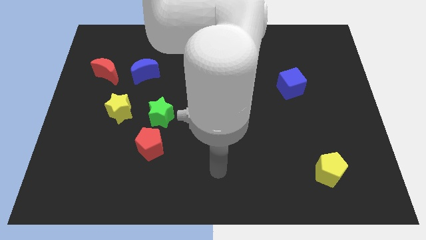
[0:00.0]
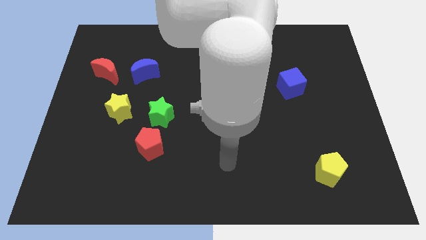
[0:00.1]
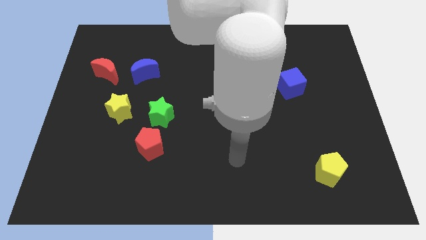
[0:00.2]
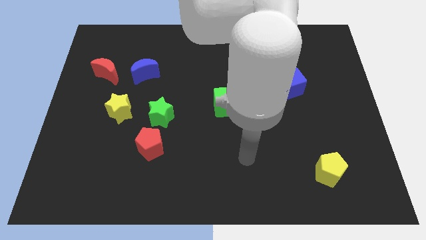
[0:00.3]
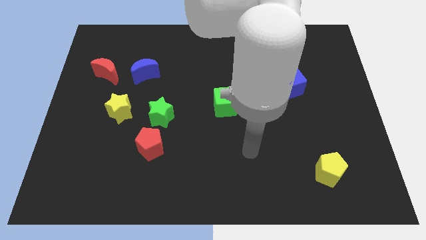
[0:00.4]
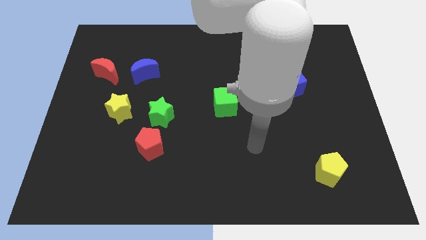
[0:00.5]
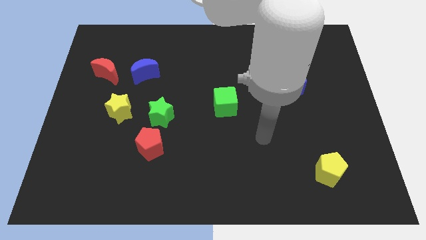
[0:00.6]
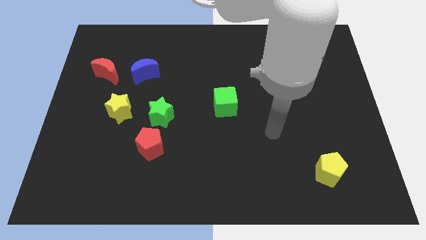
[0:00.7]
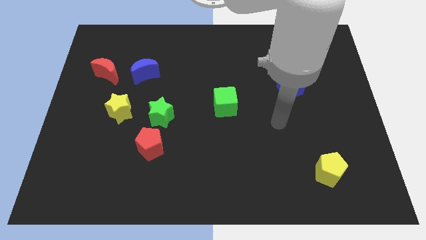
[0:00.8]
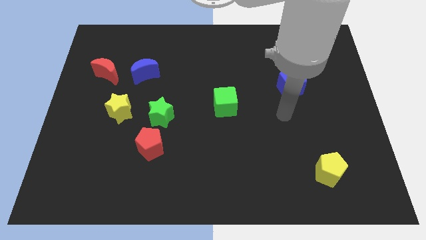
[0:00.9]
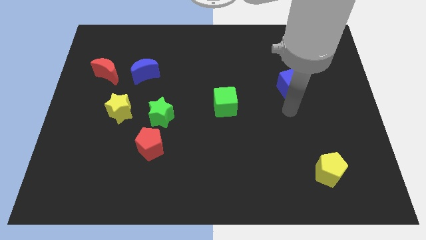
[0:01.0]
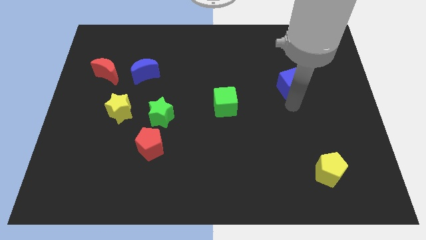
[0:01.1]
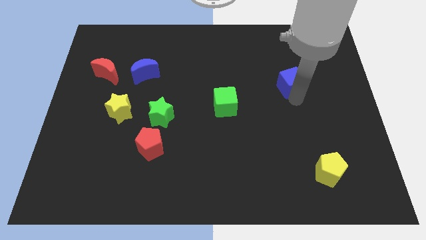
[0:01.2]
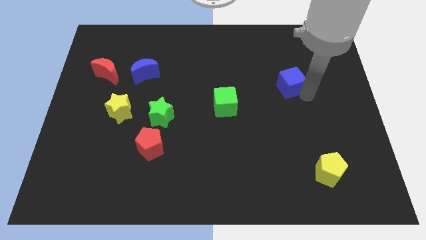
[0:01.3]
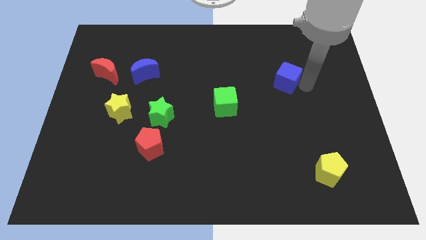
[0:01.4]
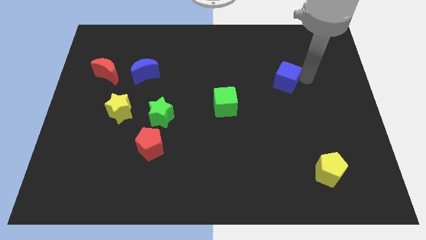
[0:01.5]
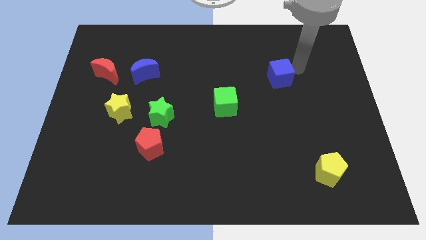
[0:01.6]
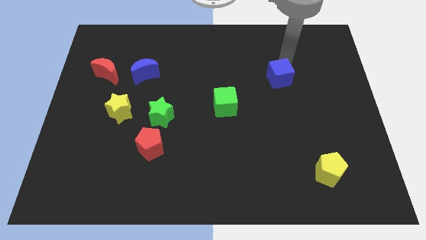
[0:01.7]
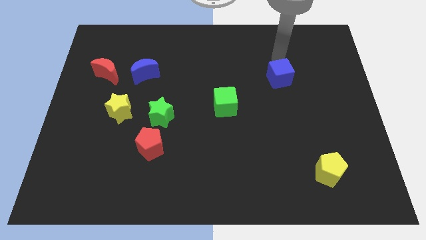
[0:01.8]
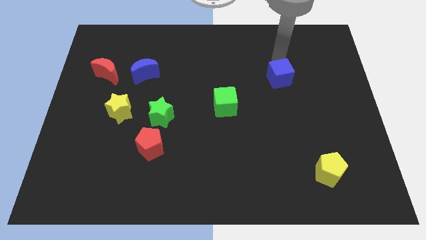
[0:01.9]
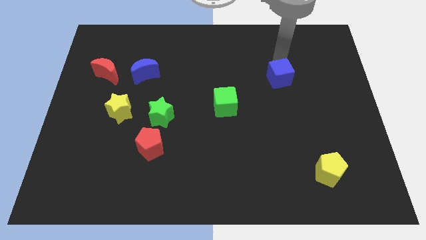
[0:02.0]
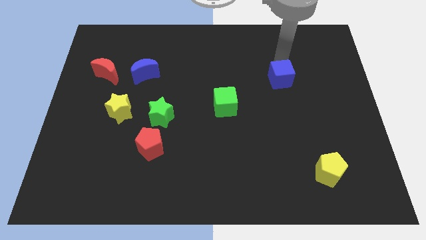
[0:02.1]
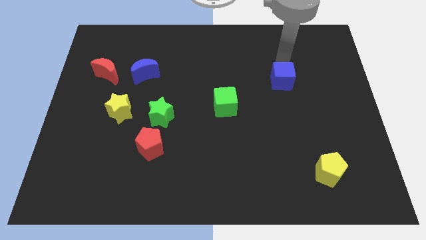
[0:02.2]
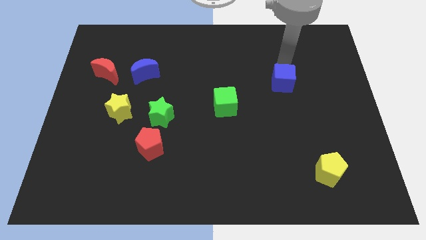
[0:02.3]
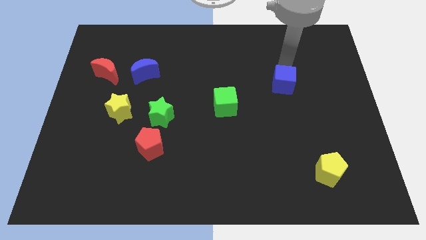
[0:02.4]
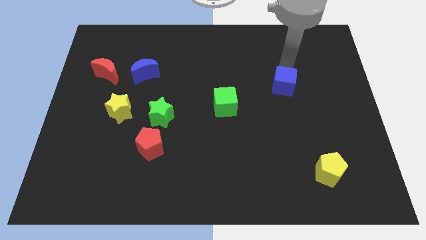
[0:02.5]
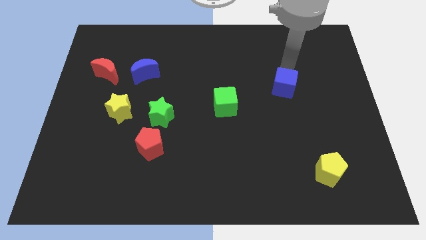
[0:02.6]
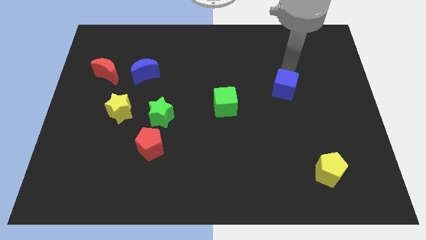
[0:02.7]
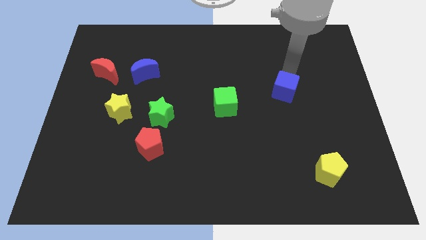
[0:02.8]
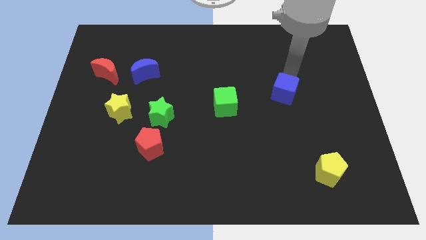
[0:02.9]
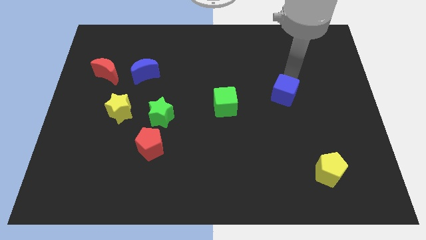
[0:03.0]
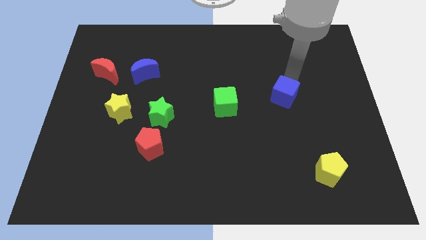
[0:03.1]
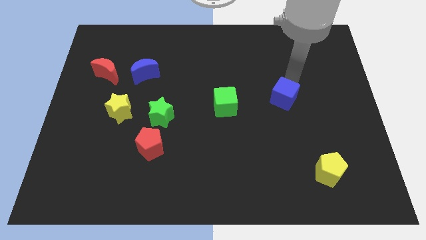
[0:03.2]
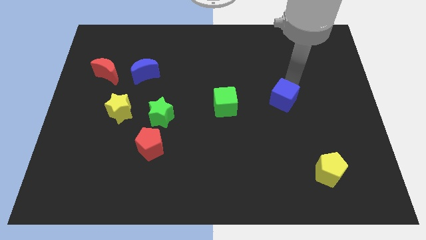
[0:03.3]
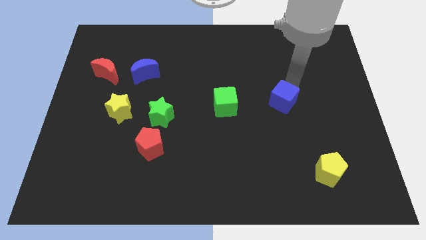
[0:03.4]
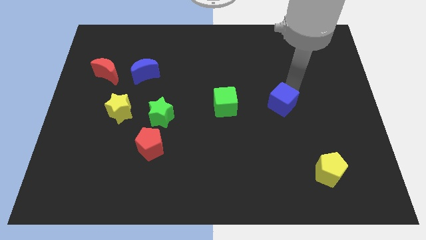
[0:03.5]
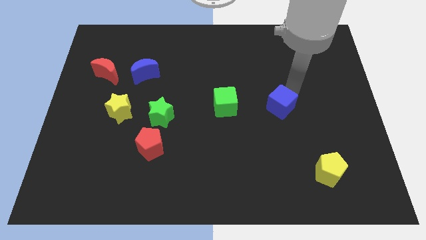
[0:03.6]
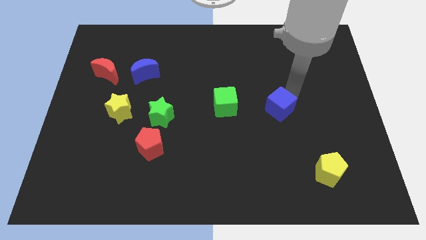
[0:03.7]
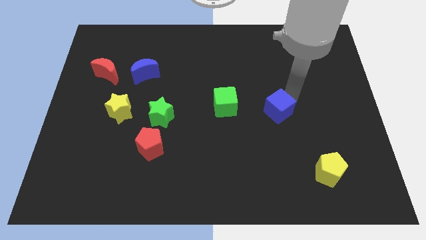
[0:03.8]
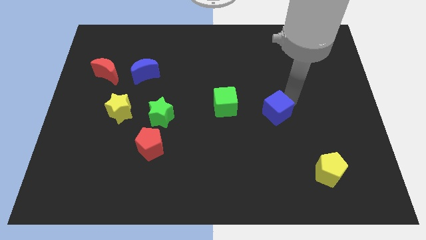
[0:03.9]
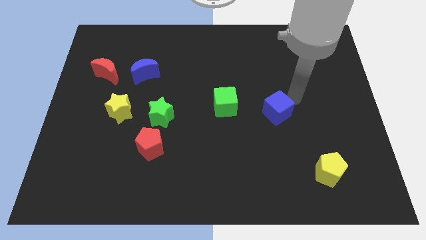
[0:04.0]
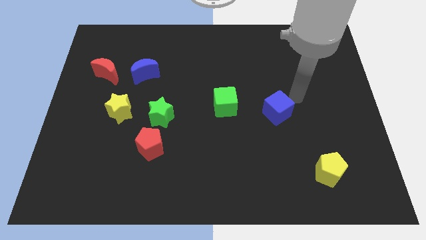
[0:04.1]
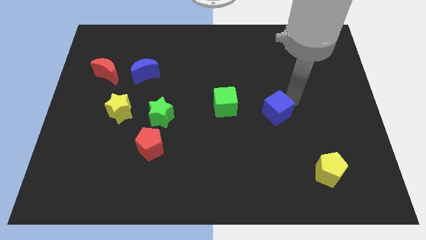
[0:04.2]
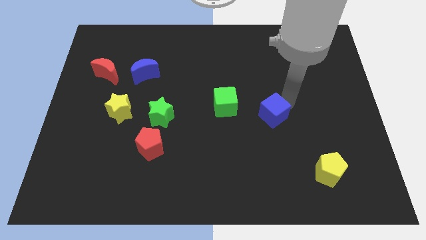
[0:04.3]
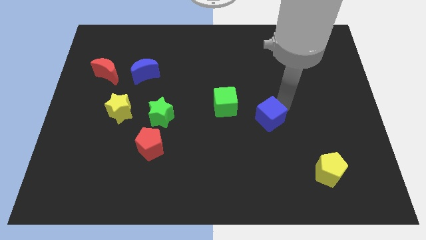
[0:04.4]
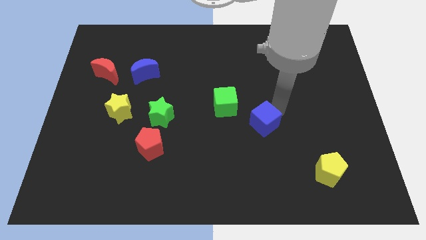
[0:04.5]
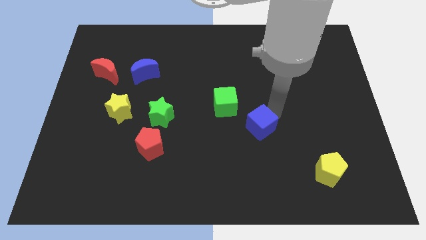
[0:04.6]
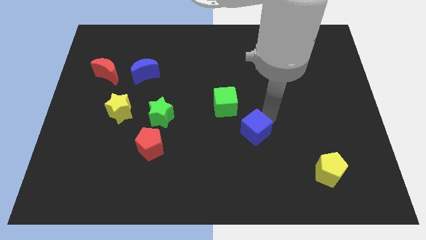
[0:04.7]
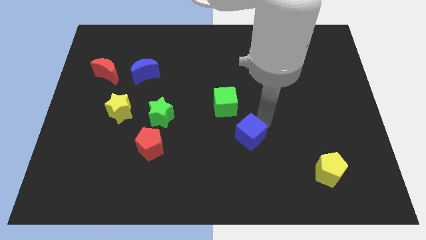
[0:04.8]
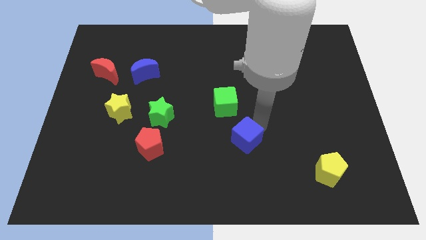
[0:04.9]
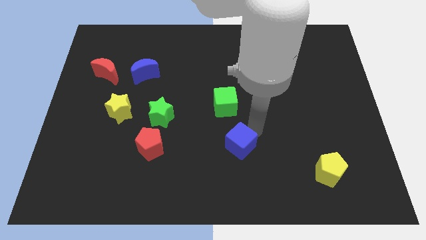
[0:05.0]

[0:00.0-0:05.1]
move the blue cube downwards and to the left

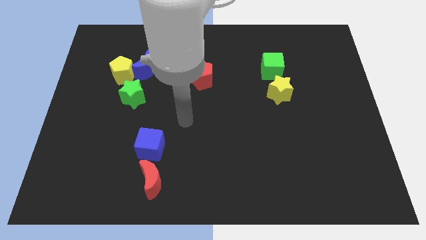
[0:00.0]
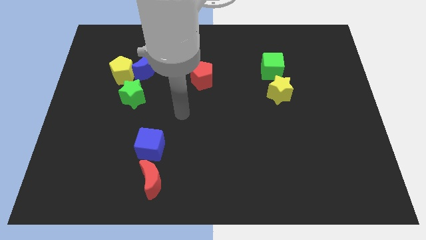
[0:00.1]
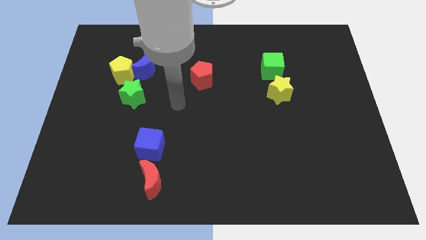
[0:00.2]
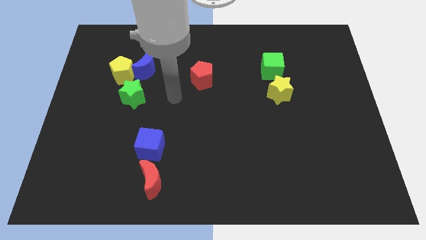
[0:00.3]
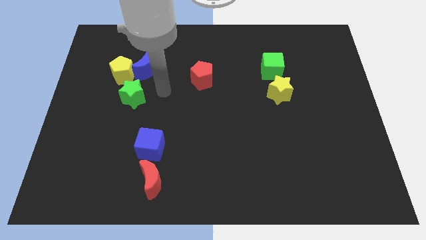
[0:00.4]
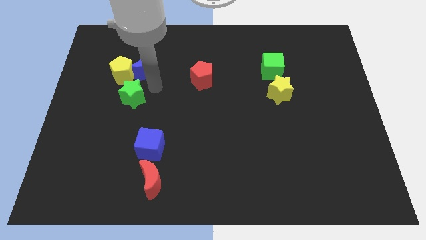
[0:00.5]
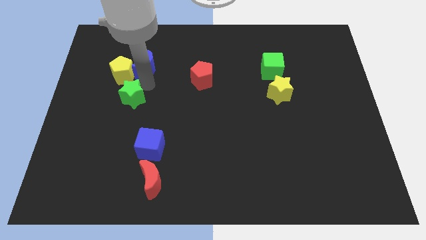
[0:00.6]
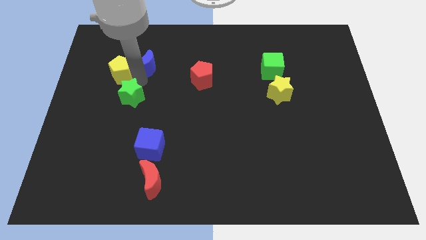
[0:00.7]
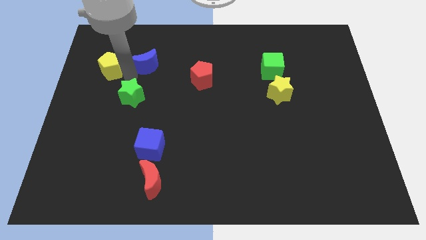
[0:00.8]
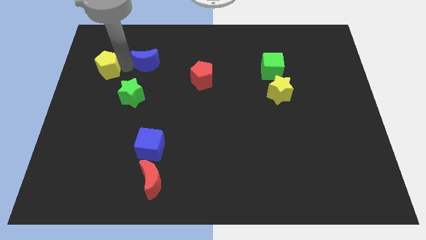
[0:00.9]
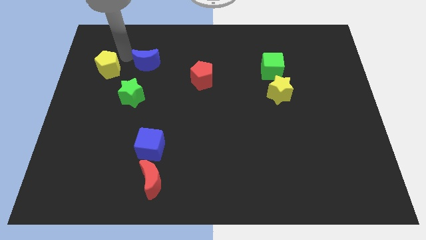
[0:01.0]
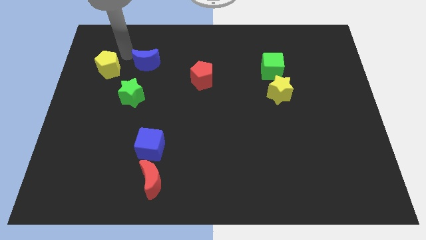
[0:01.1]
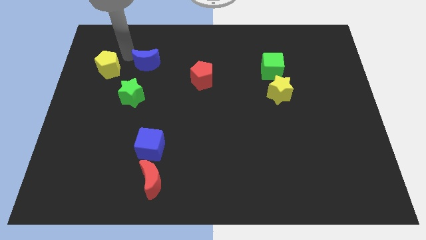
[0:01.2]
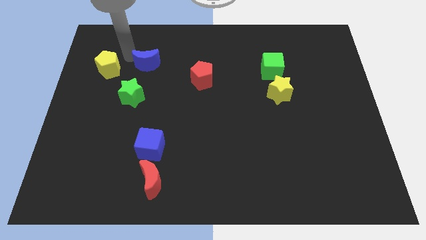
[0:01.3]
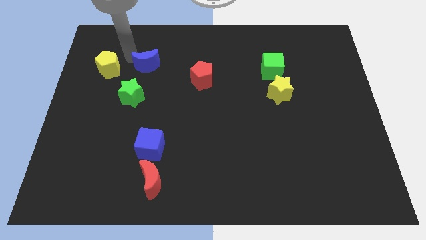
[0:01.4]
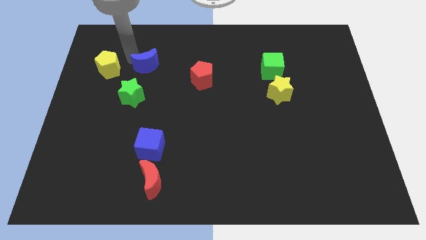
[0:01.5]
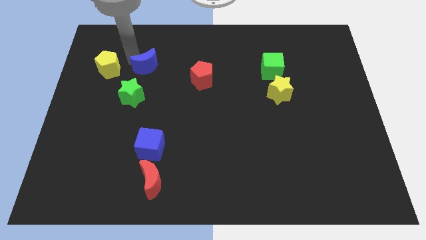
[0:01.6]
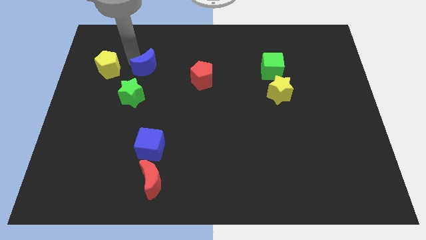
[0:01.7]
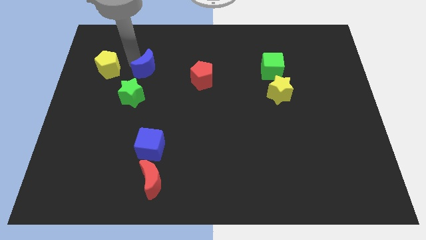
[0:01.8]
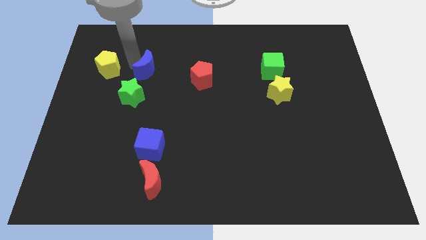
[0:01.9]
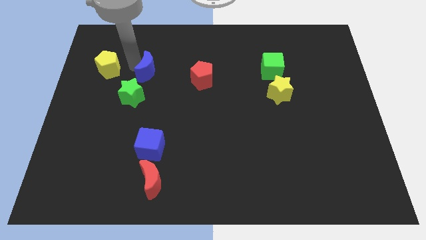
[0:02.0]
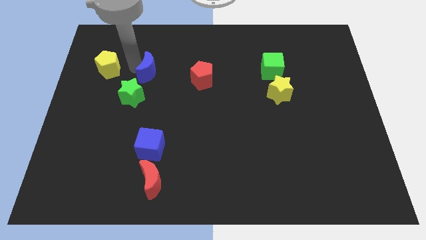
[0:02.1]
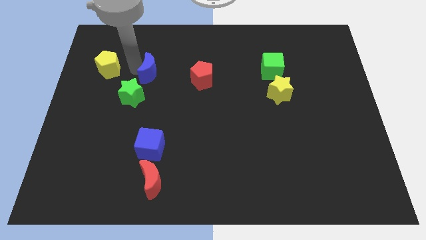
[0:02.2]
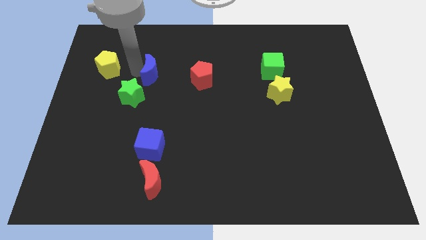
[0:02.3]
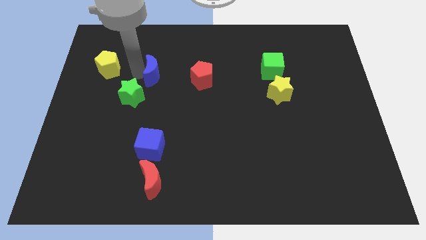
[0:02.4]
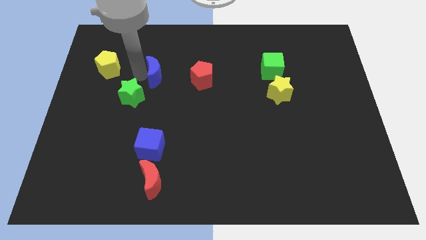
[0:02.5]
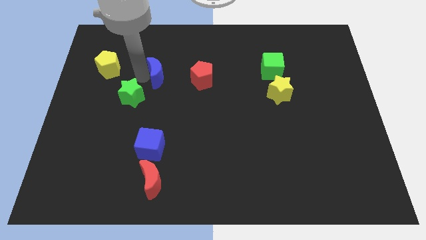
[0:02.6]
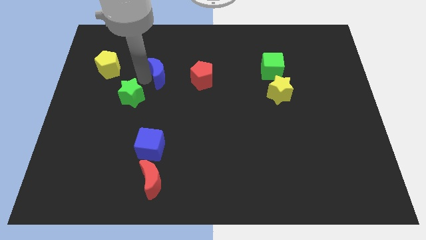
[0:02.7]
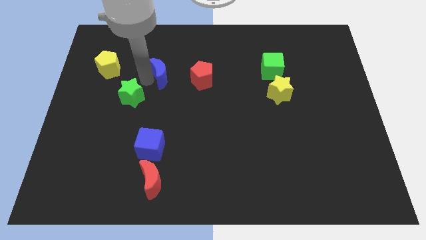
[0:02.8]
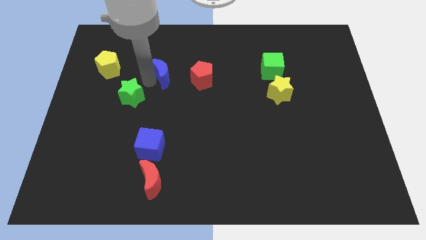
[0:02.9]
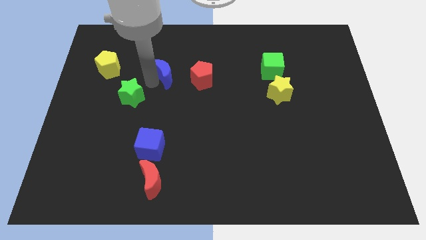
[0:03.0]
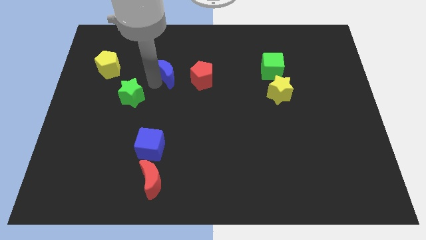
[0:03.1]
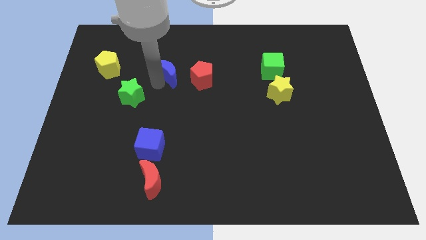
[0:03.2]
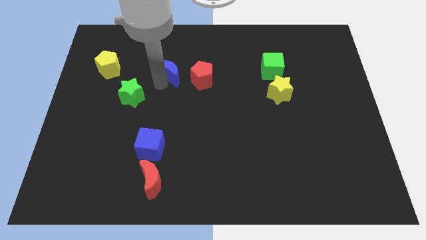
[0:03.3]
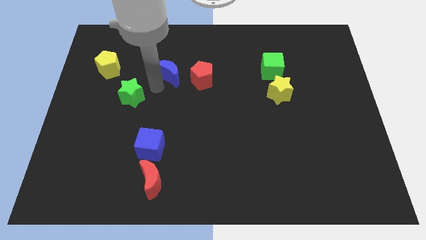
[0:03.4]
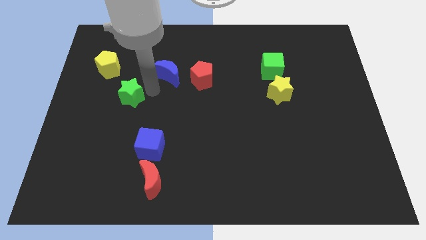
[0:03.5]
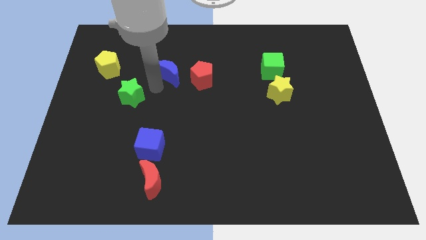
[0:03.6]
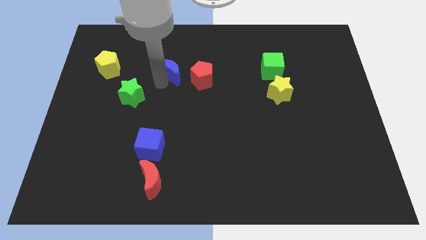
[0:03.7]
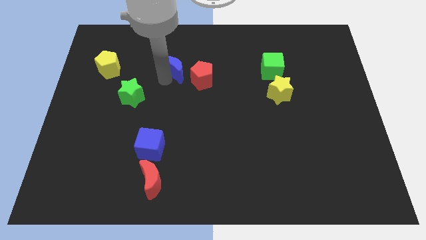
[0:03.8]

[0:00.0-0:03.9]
slide the blue moon to the right a bit
